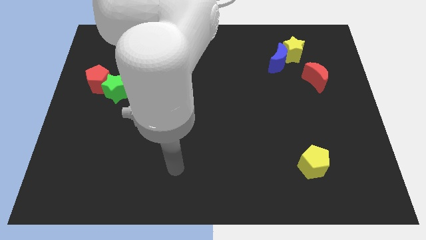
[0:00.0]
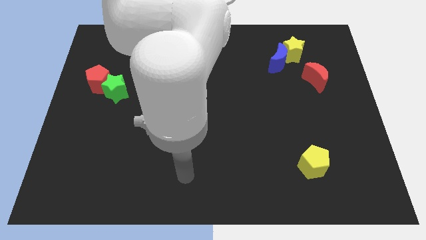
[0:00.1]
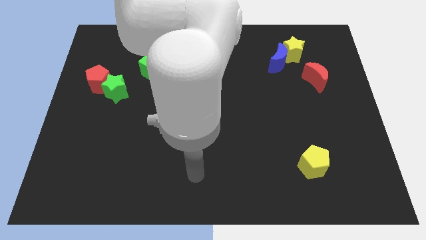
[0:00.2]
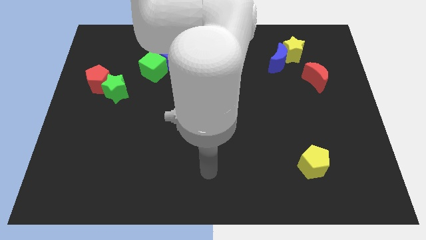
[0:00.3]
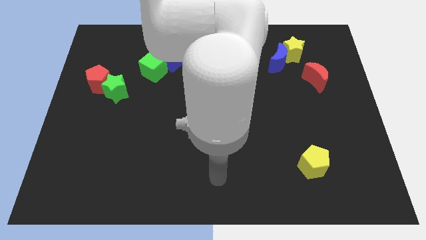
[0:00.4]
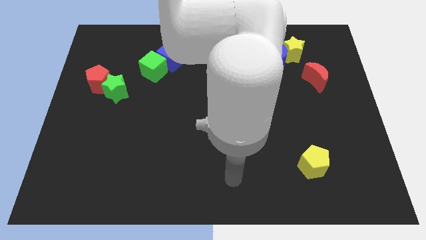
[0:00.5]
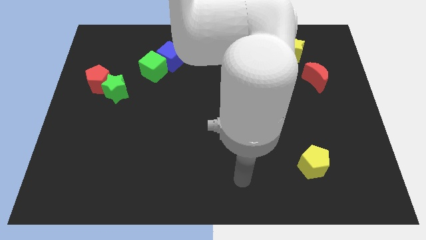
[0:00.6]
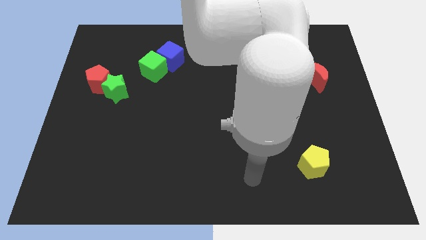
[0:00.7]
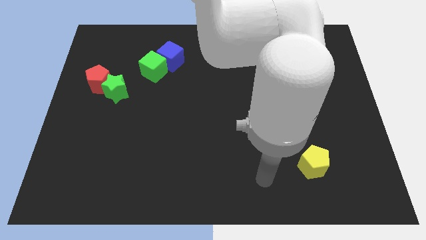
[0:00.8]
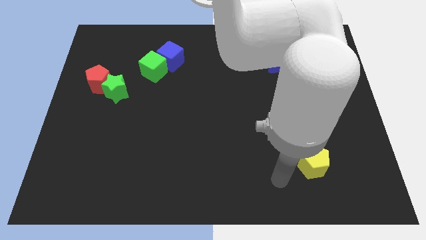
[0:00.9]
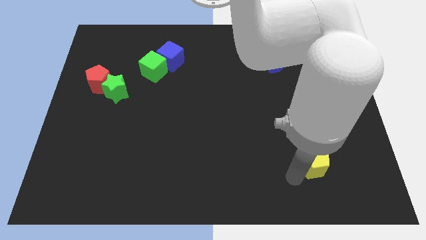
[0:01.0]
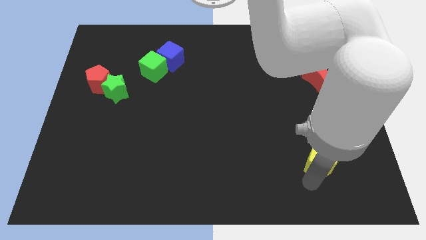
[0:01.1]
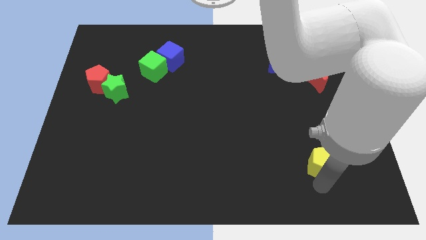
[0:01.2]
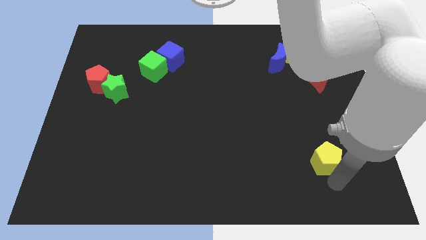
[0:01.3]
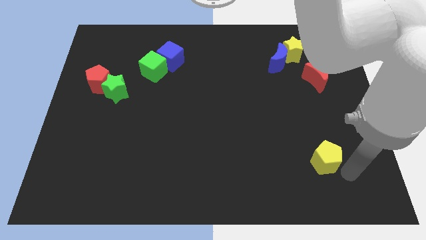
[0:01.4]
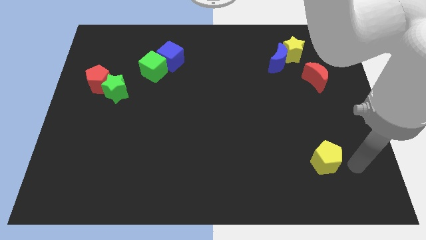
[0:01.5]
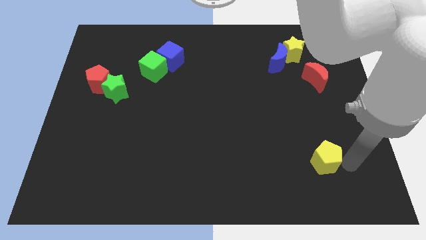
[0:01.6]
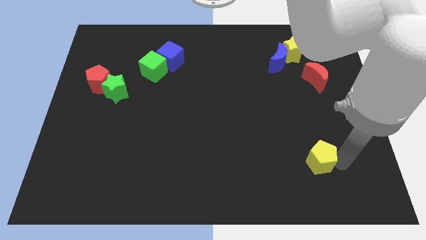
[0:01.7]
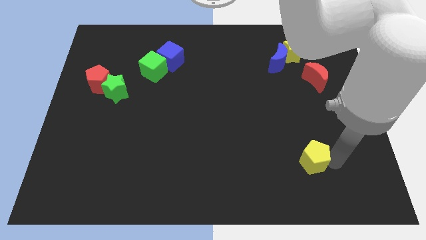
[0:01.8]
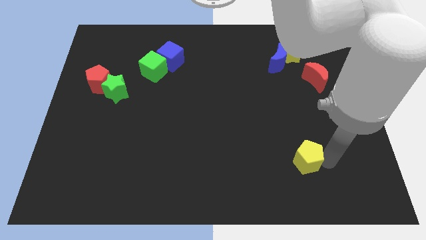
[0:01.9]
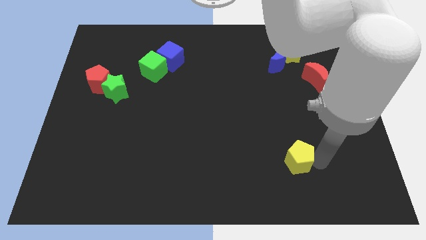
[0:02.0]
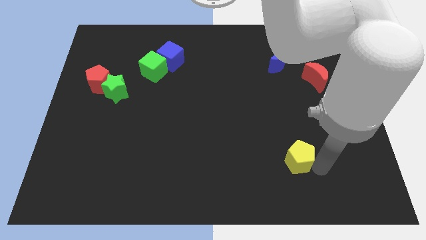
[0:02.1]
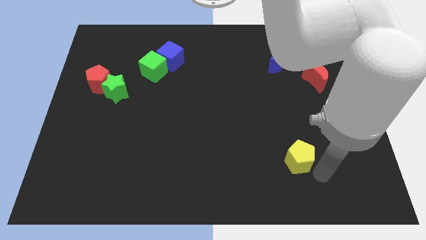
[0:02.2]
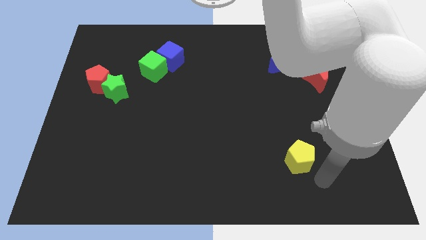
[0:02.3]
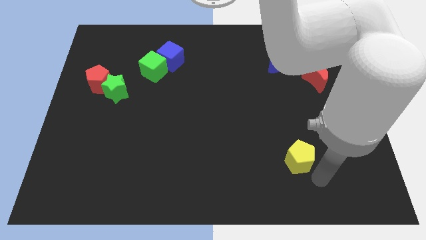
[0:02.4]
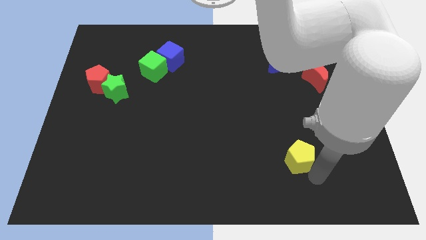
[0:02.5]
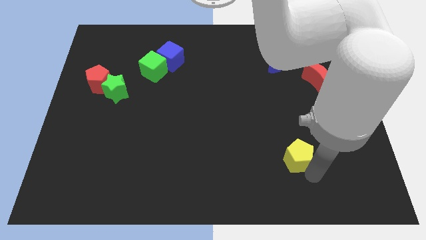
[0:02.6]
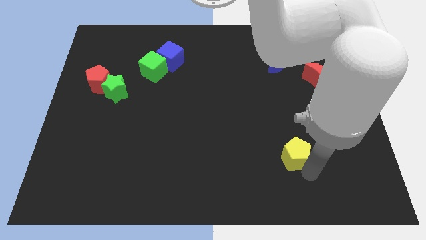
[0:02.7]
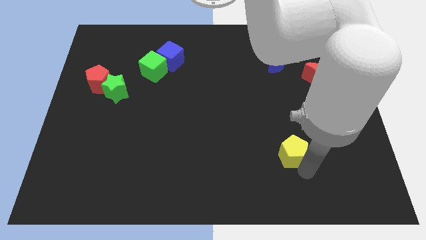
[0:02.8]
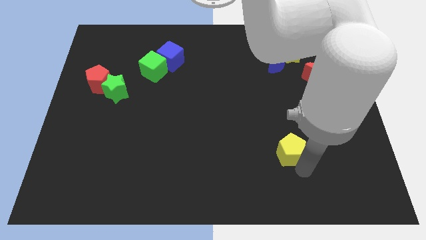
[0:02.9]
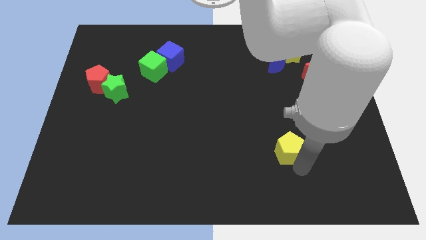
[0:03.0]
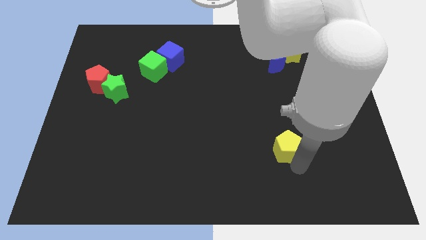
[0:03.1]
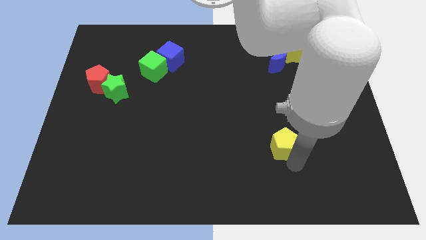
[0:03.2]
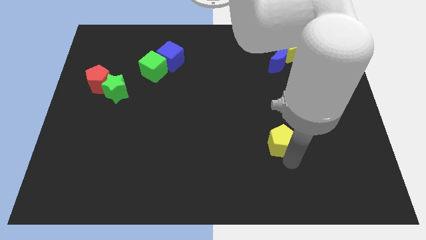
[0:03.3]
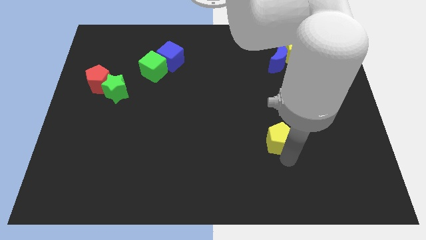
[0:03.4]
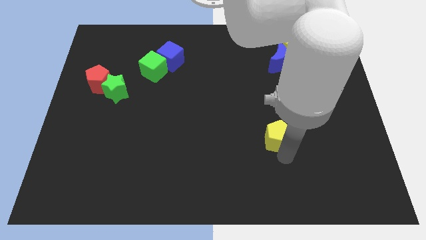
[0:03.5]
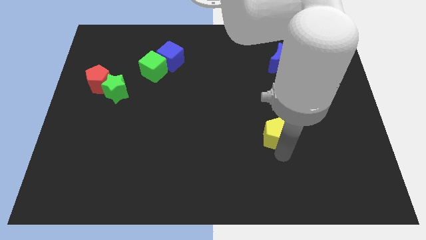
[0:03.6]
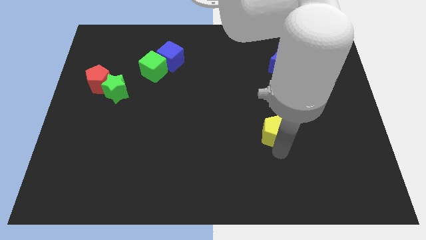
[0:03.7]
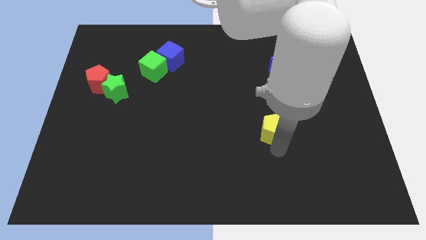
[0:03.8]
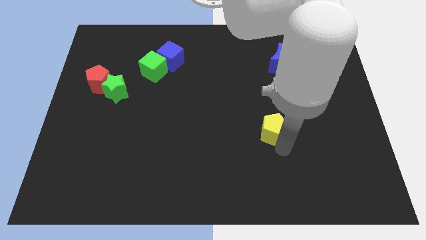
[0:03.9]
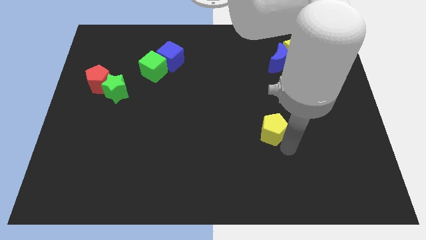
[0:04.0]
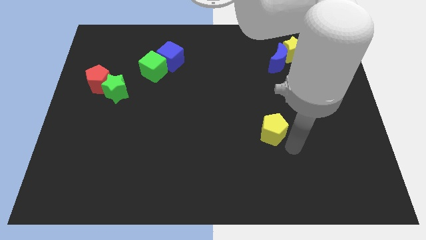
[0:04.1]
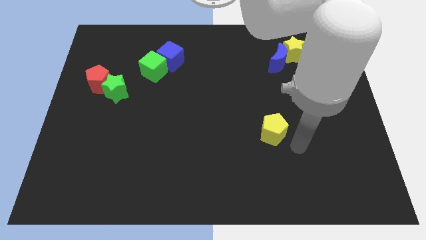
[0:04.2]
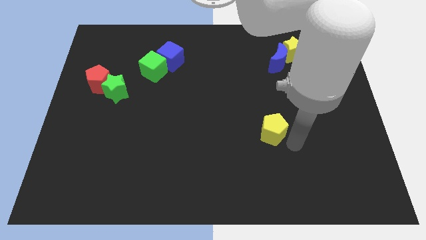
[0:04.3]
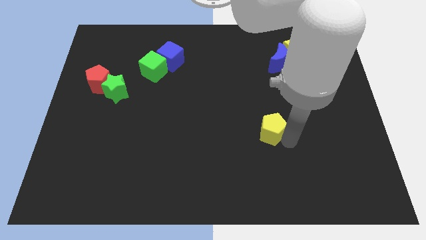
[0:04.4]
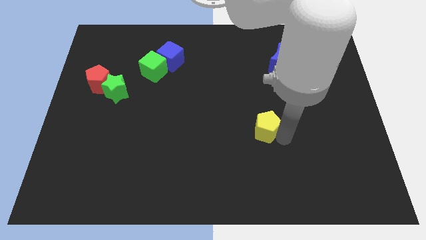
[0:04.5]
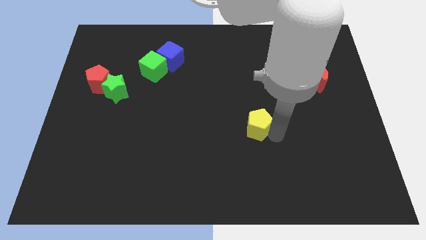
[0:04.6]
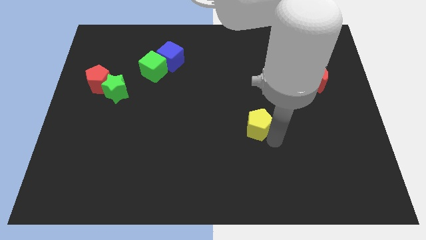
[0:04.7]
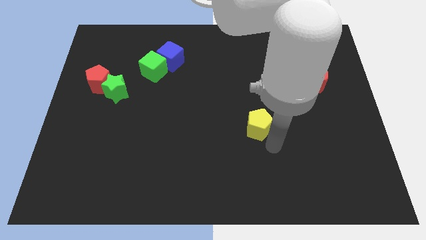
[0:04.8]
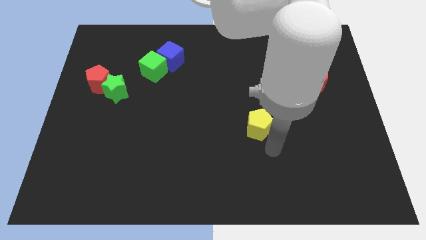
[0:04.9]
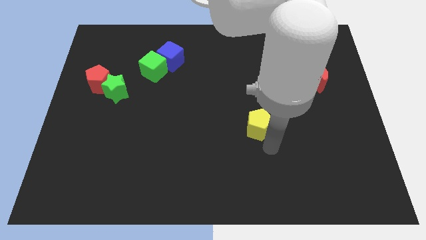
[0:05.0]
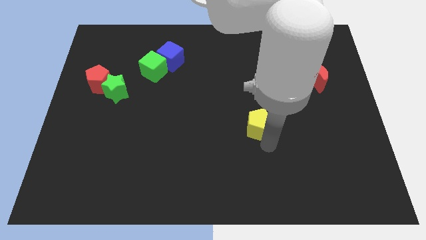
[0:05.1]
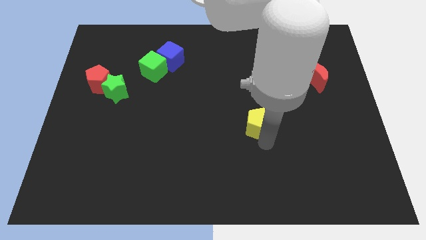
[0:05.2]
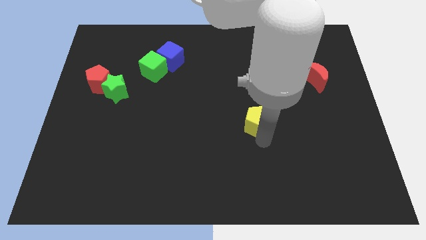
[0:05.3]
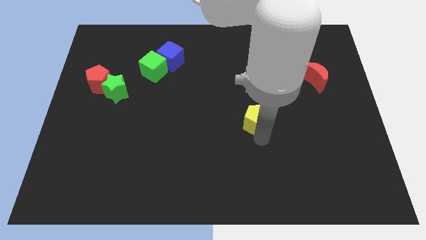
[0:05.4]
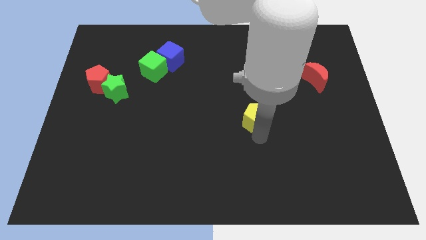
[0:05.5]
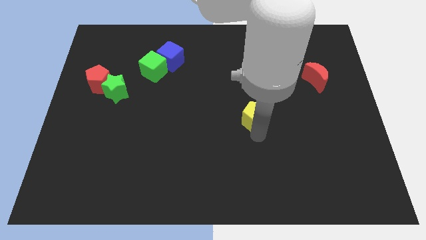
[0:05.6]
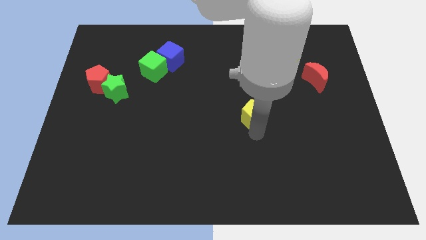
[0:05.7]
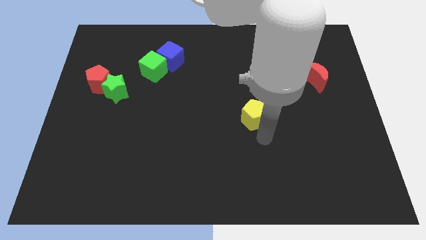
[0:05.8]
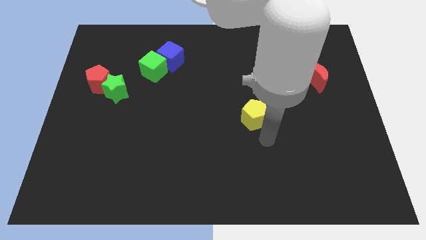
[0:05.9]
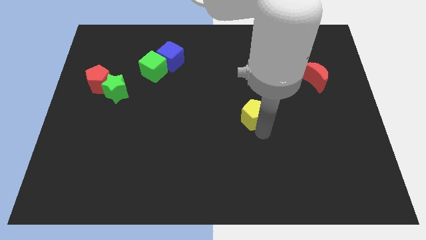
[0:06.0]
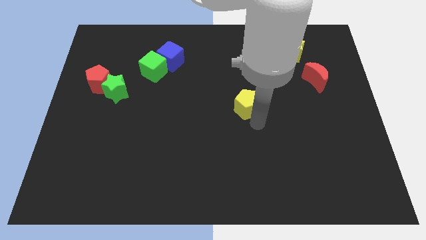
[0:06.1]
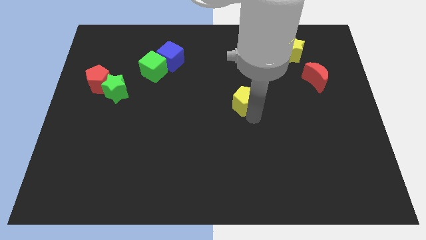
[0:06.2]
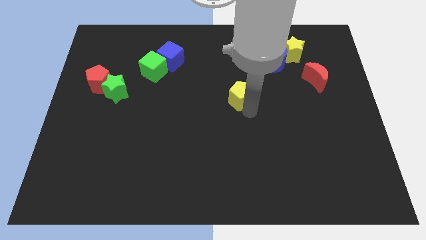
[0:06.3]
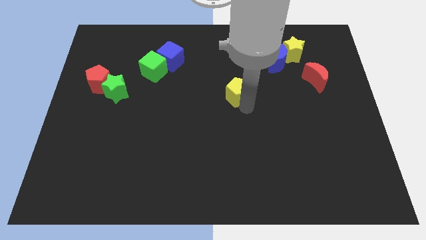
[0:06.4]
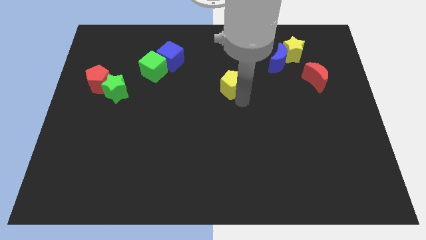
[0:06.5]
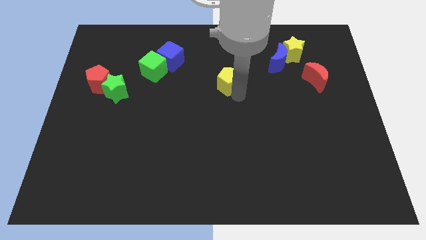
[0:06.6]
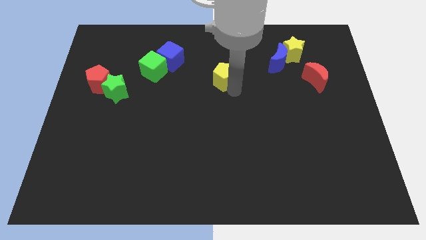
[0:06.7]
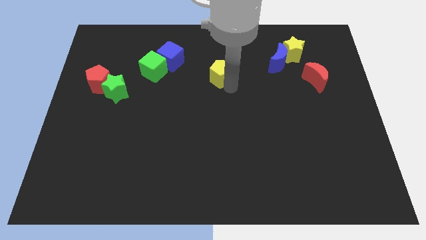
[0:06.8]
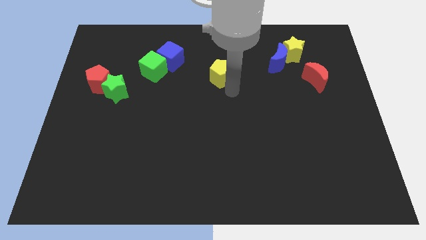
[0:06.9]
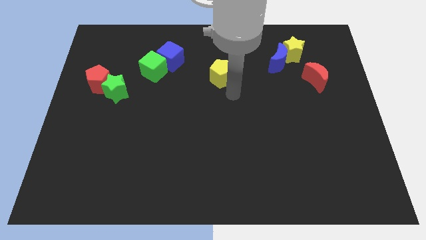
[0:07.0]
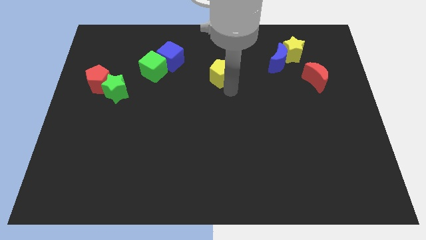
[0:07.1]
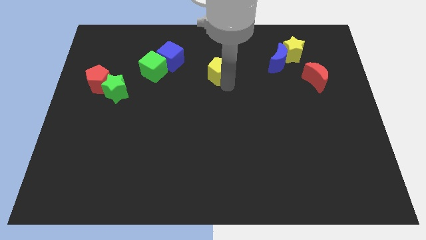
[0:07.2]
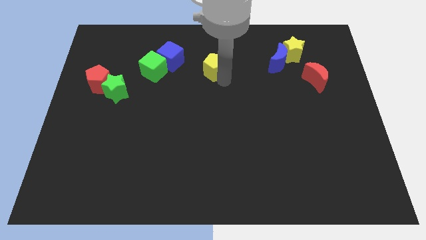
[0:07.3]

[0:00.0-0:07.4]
move the yellow pentagon to the right of the blue cube
